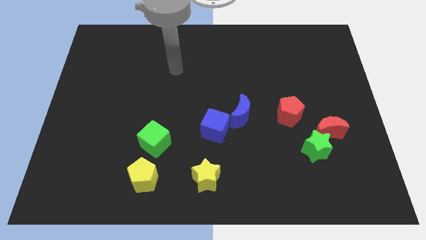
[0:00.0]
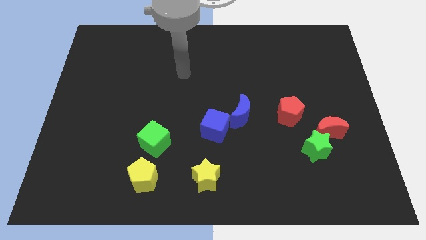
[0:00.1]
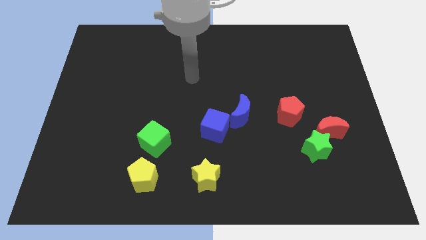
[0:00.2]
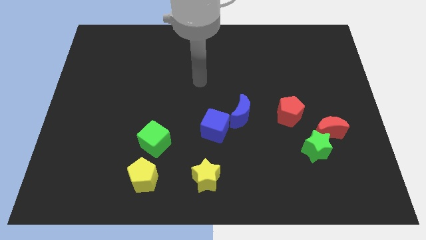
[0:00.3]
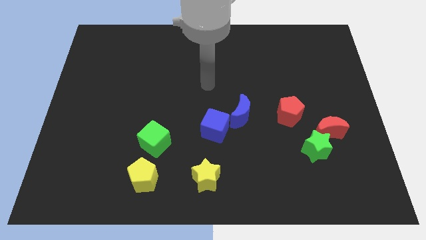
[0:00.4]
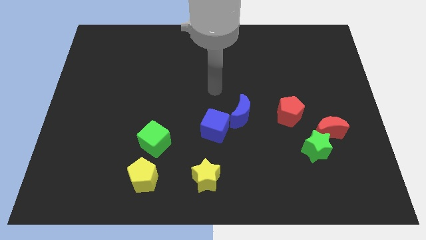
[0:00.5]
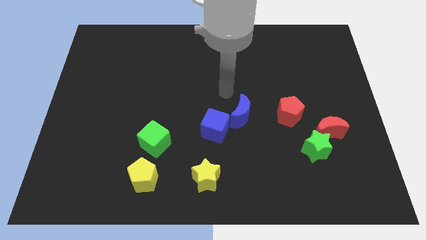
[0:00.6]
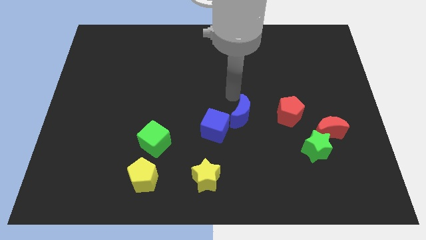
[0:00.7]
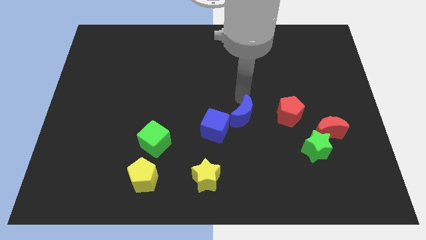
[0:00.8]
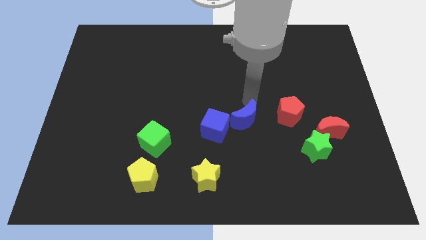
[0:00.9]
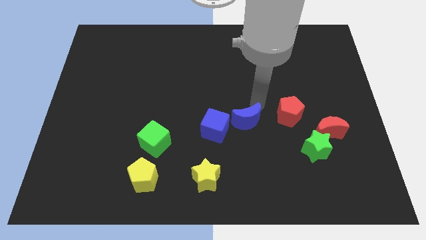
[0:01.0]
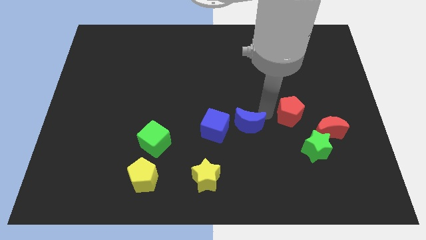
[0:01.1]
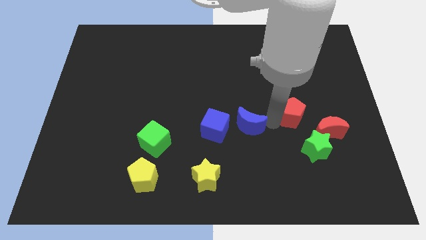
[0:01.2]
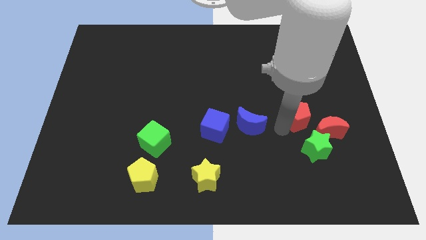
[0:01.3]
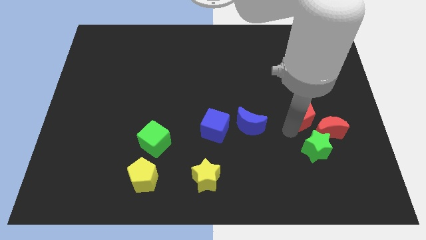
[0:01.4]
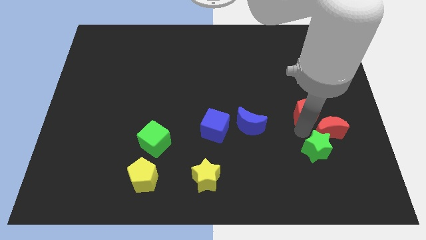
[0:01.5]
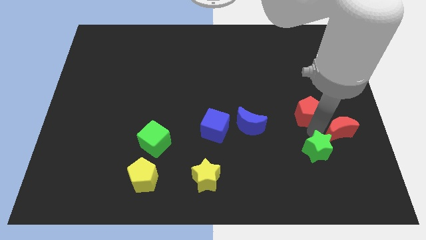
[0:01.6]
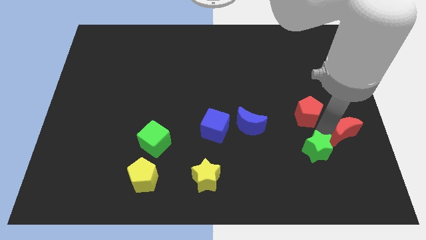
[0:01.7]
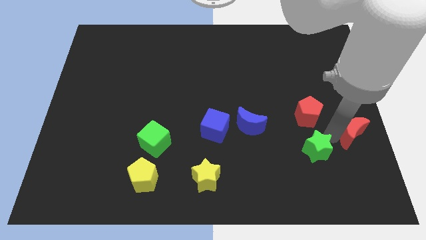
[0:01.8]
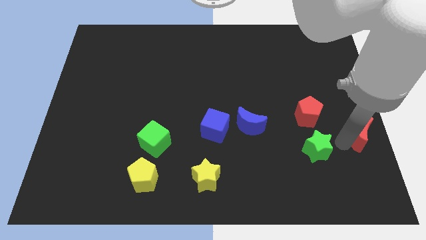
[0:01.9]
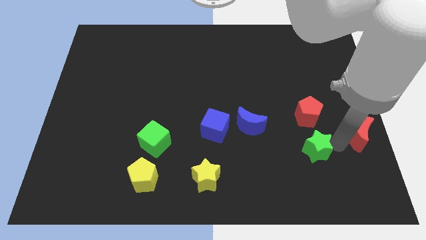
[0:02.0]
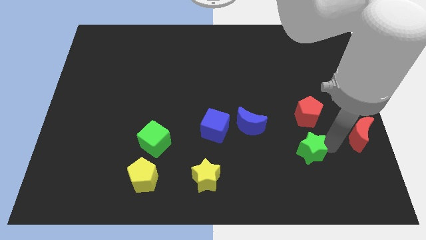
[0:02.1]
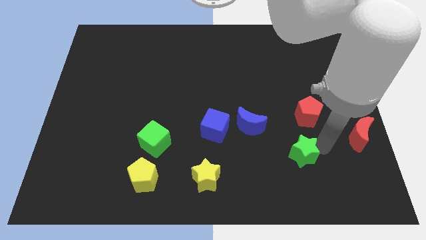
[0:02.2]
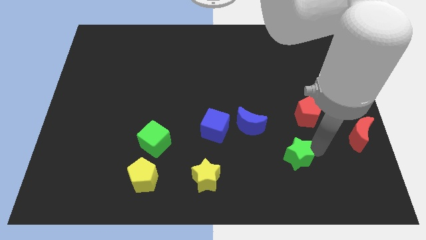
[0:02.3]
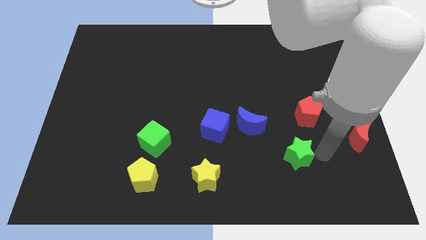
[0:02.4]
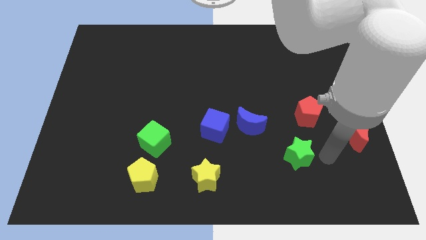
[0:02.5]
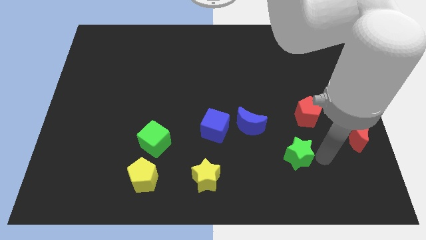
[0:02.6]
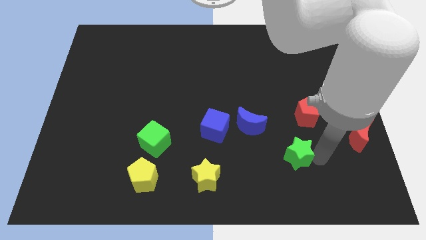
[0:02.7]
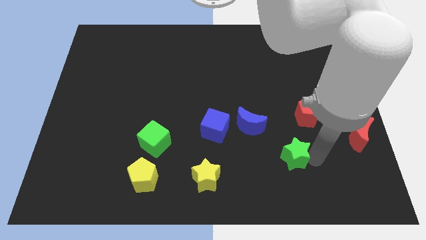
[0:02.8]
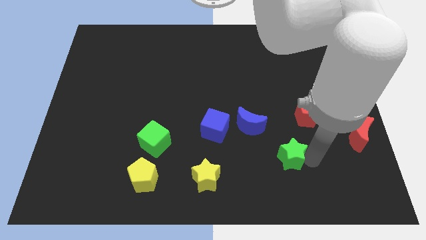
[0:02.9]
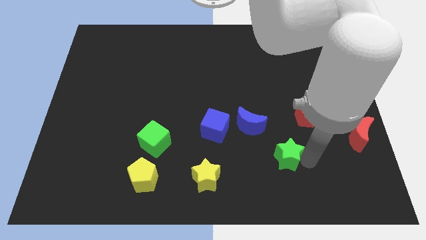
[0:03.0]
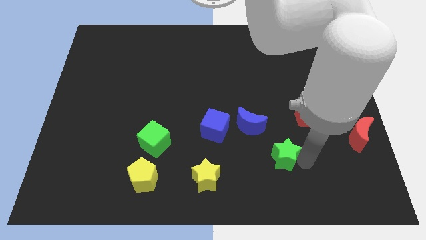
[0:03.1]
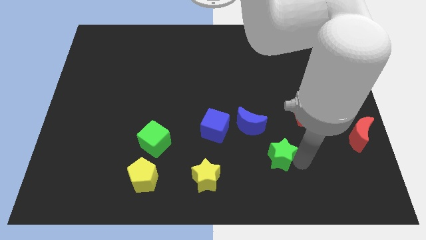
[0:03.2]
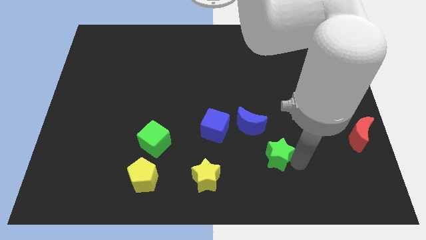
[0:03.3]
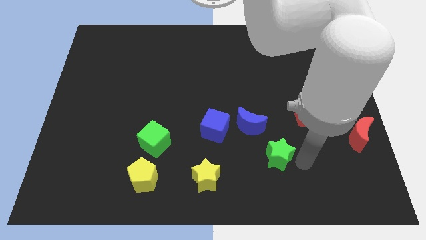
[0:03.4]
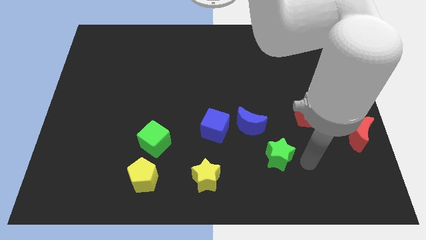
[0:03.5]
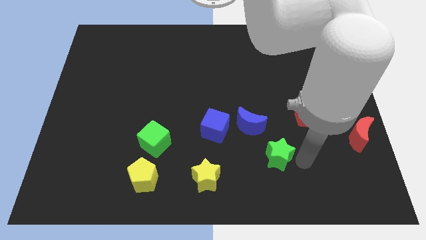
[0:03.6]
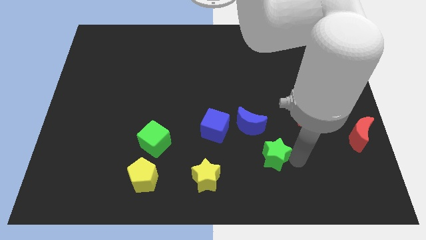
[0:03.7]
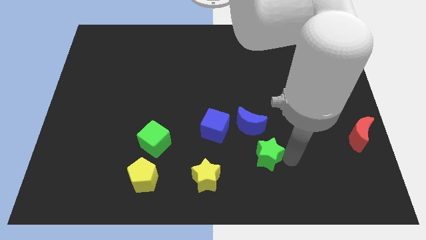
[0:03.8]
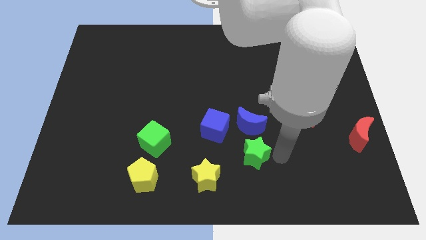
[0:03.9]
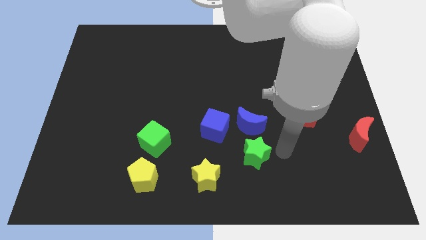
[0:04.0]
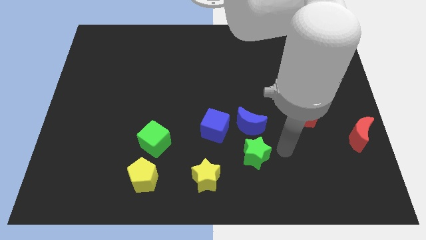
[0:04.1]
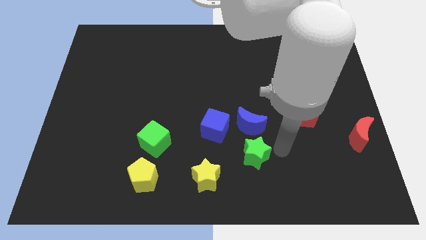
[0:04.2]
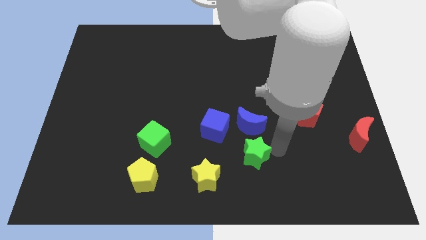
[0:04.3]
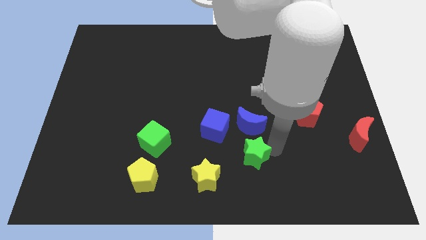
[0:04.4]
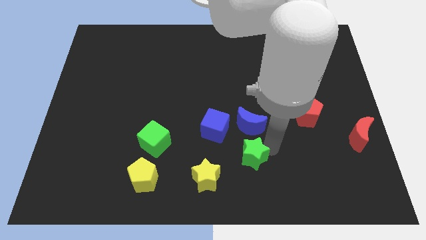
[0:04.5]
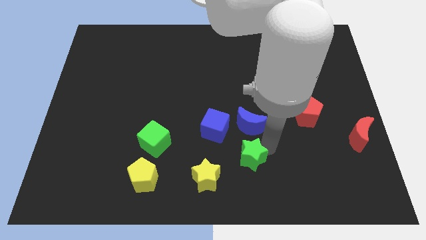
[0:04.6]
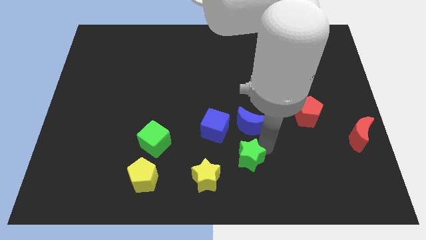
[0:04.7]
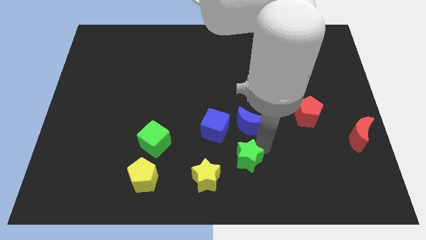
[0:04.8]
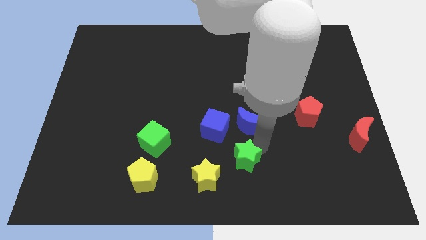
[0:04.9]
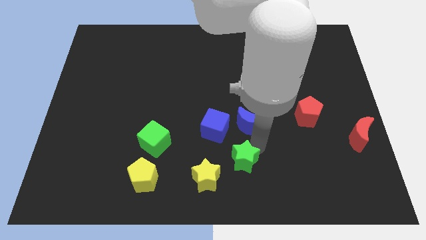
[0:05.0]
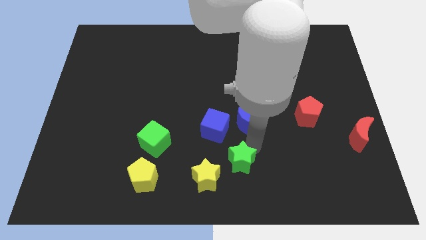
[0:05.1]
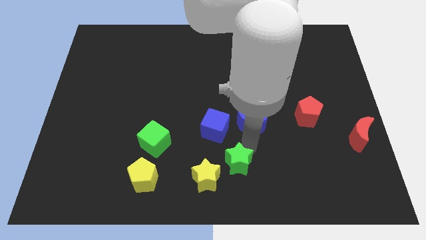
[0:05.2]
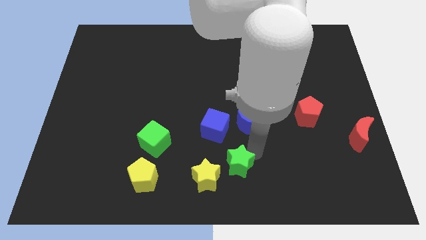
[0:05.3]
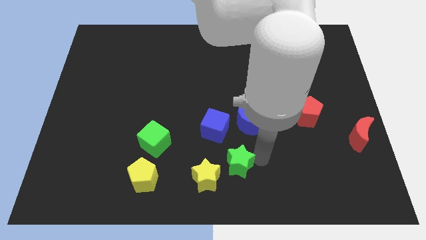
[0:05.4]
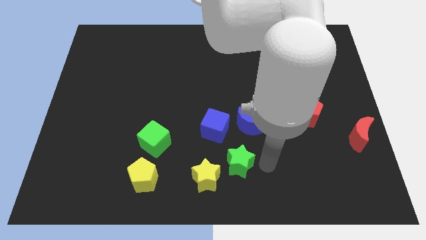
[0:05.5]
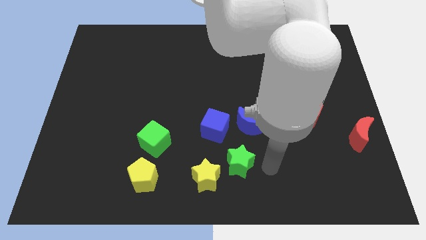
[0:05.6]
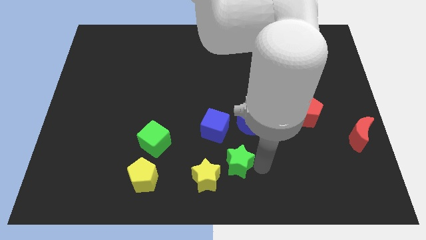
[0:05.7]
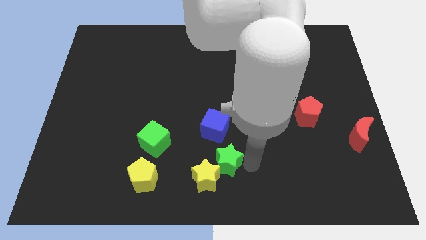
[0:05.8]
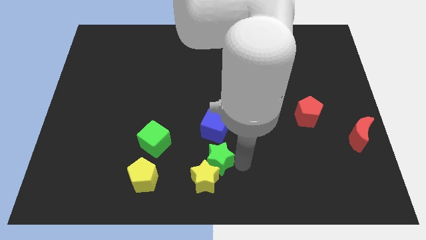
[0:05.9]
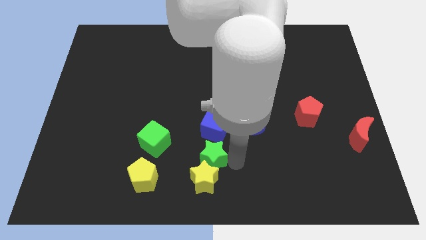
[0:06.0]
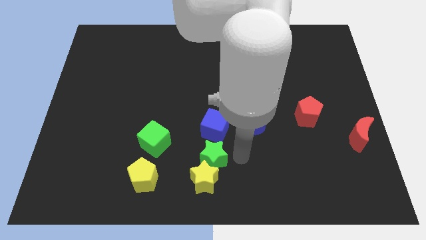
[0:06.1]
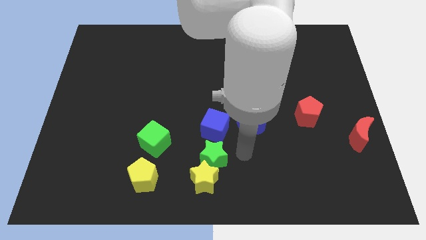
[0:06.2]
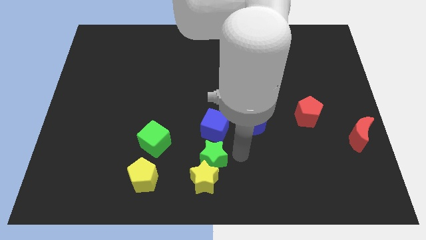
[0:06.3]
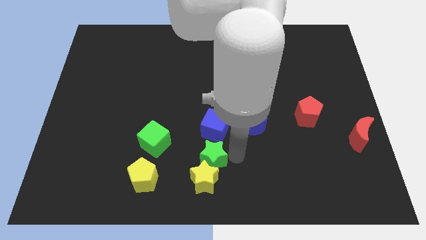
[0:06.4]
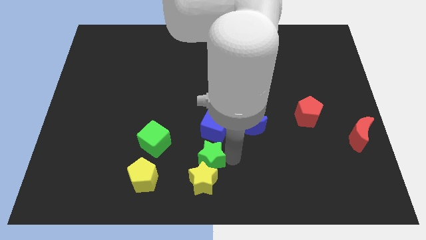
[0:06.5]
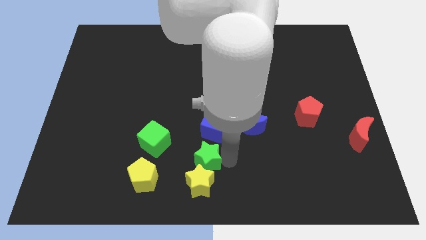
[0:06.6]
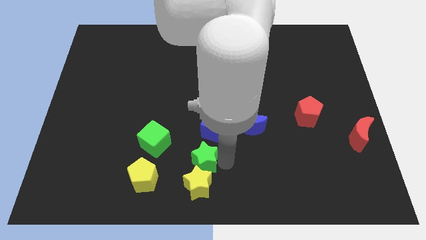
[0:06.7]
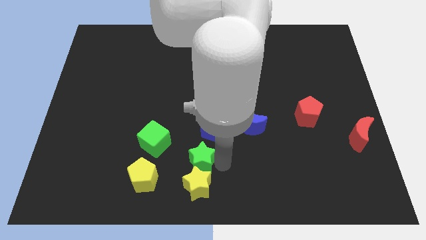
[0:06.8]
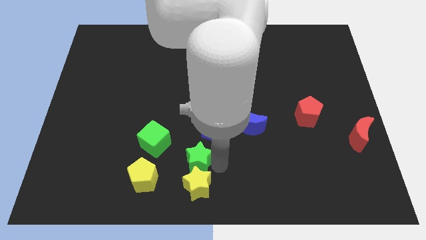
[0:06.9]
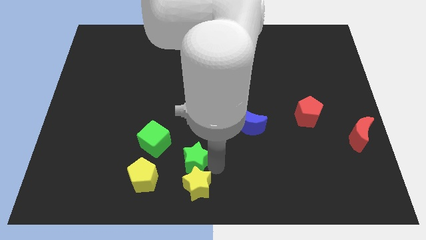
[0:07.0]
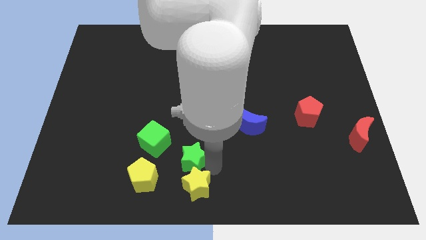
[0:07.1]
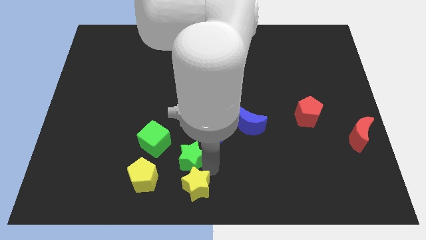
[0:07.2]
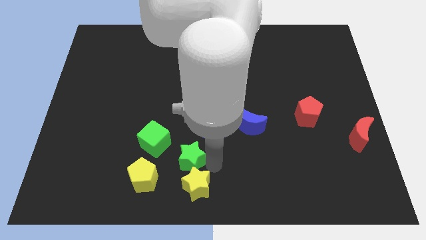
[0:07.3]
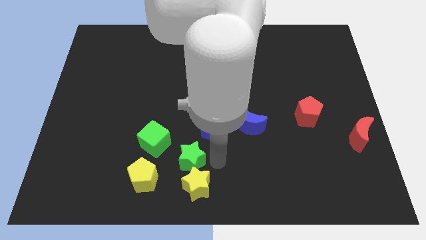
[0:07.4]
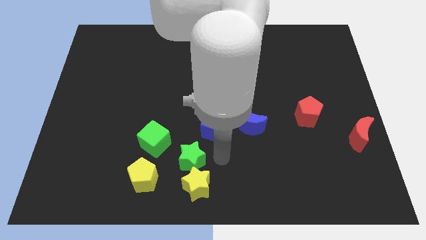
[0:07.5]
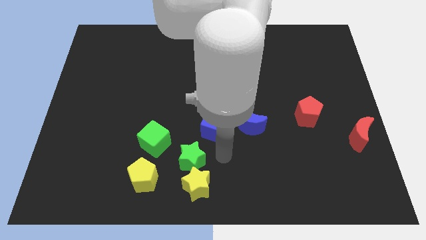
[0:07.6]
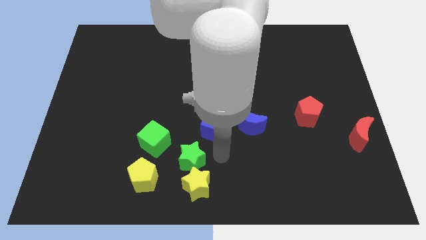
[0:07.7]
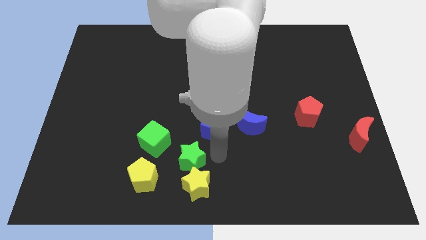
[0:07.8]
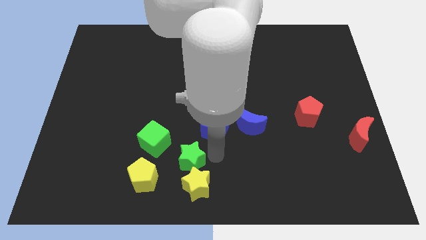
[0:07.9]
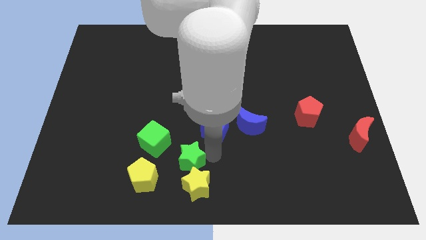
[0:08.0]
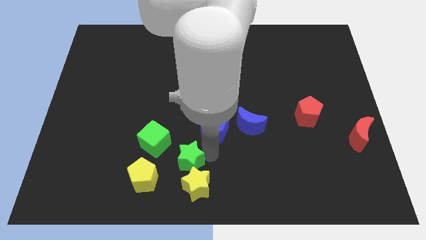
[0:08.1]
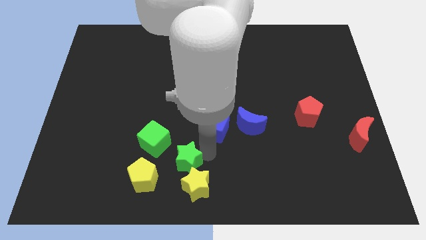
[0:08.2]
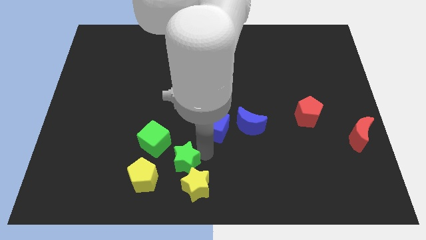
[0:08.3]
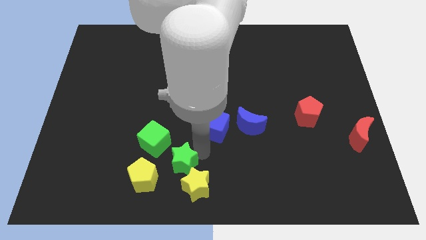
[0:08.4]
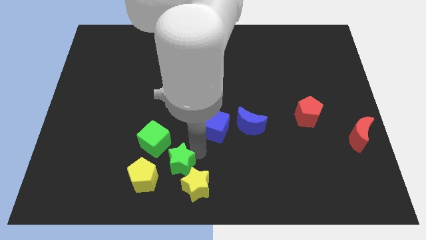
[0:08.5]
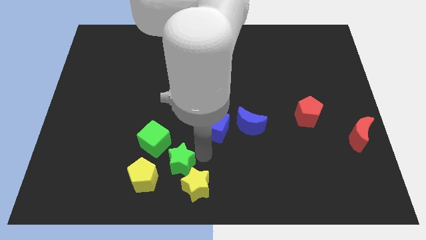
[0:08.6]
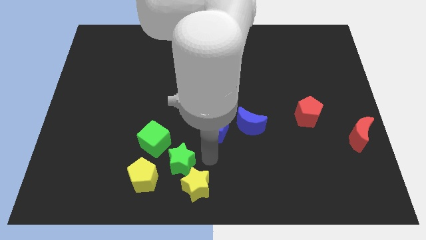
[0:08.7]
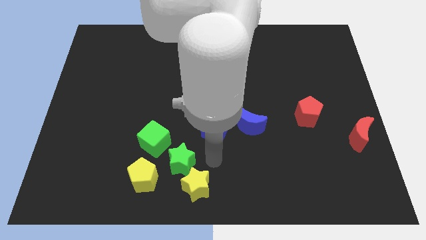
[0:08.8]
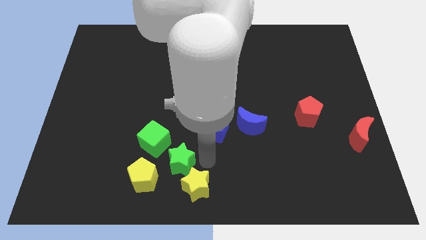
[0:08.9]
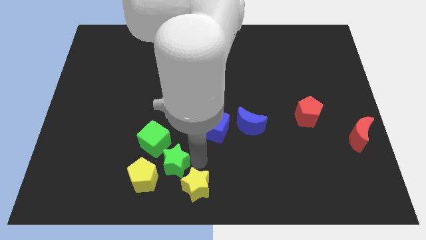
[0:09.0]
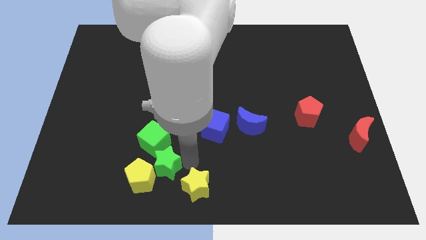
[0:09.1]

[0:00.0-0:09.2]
slide the green star next to the yellow pentagon
